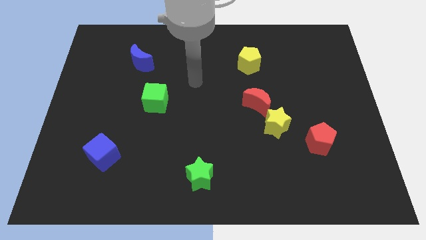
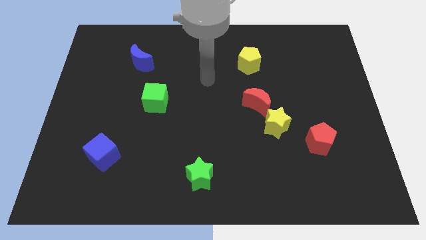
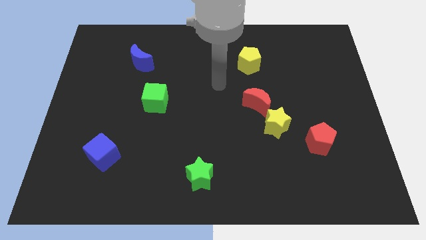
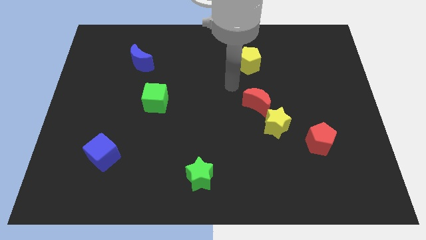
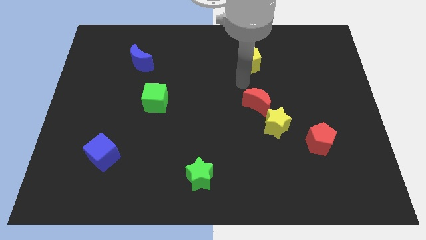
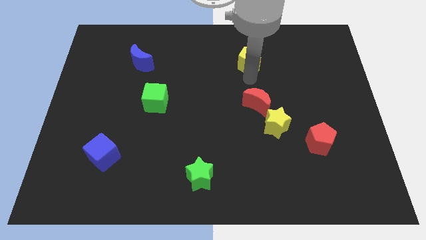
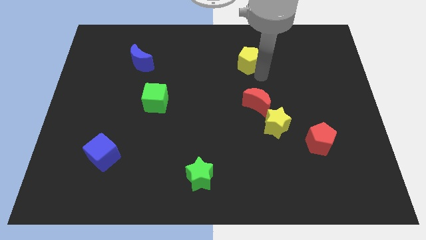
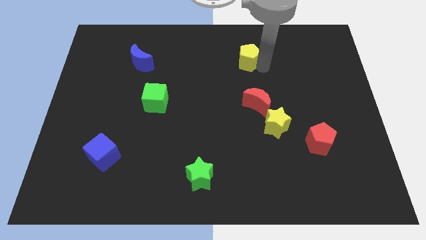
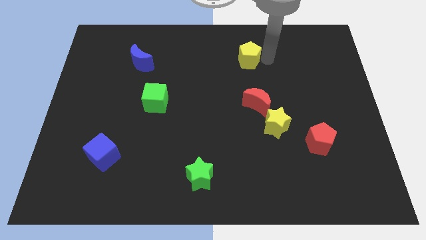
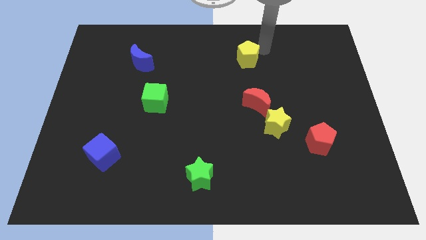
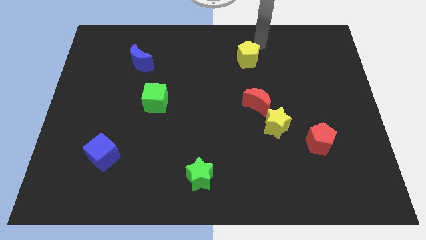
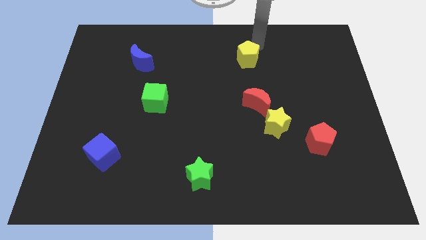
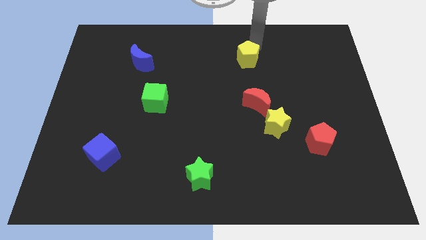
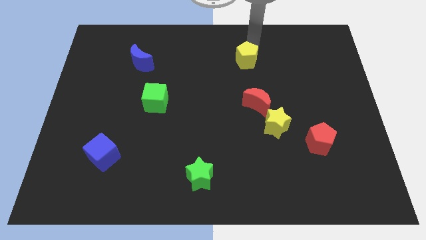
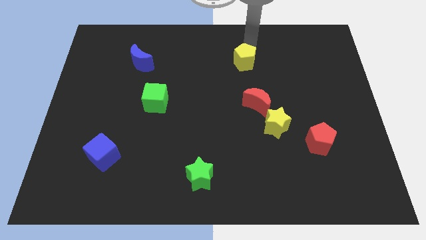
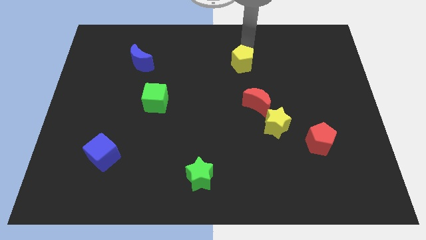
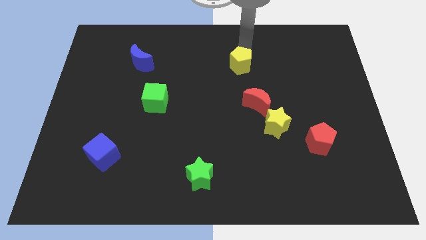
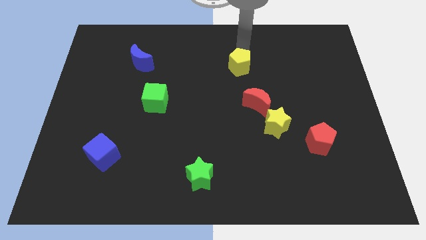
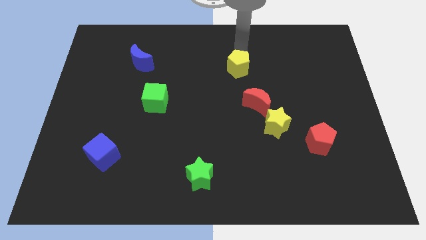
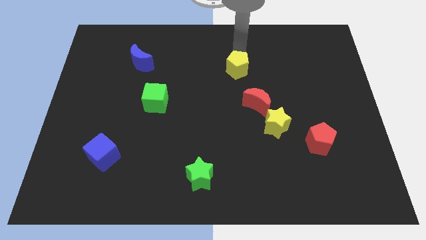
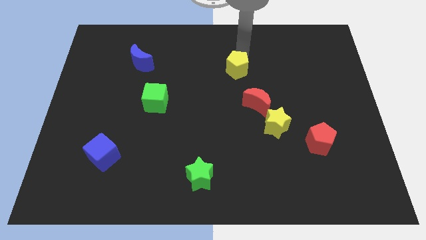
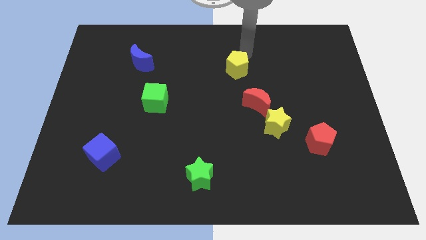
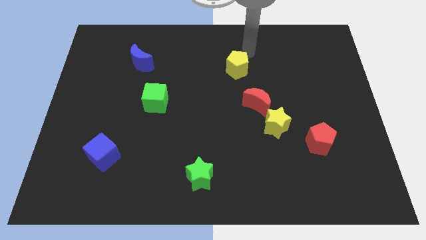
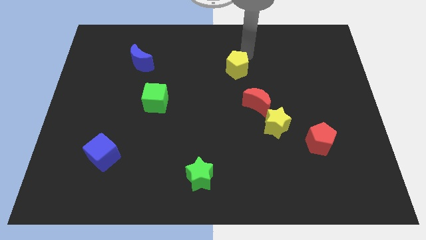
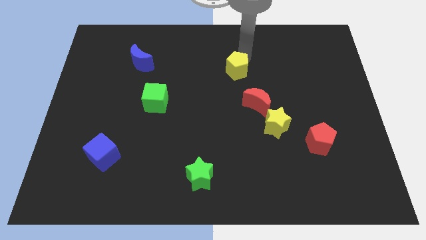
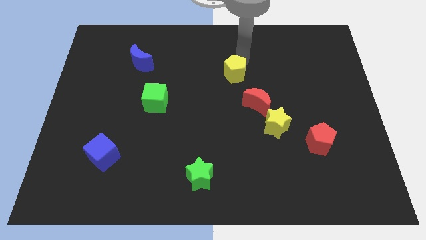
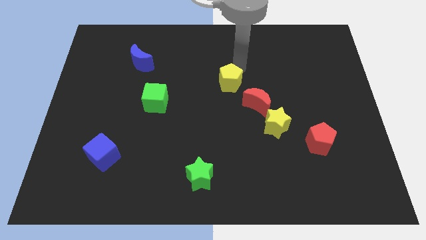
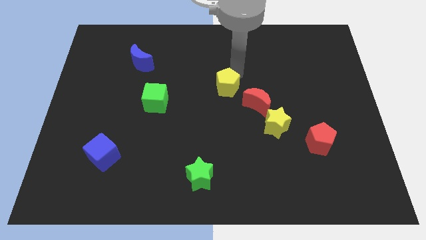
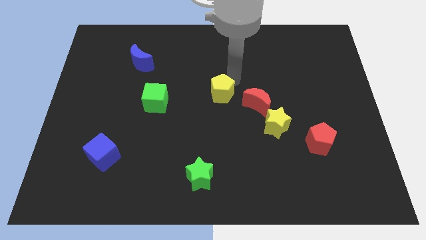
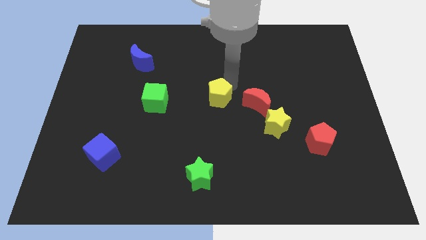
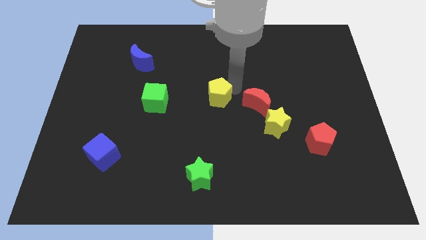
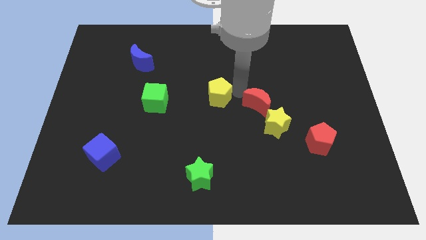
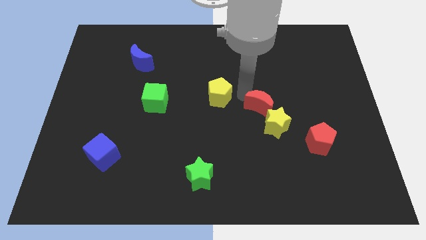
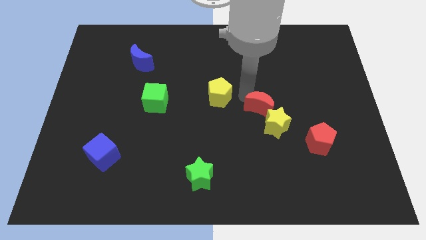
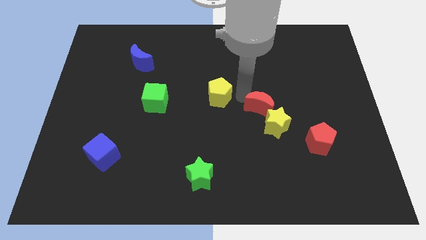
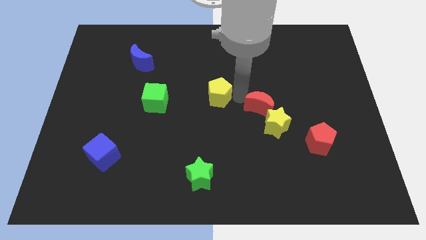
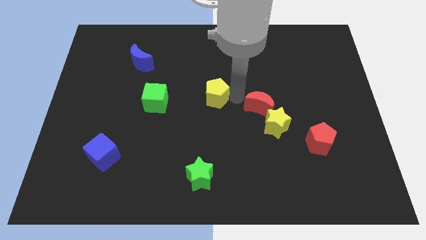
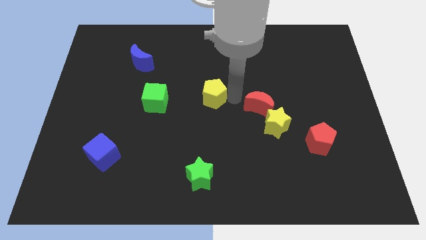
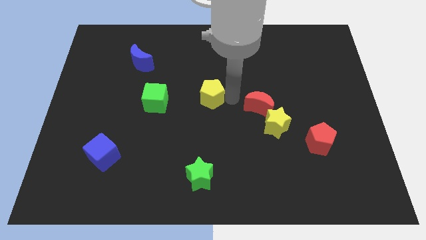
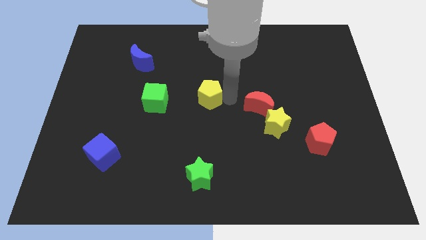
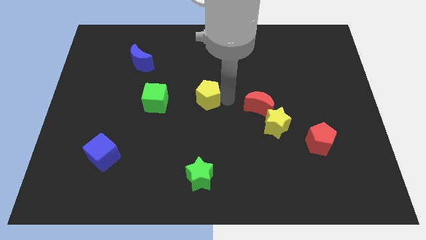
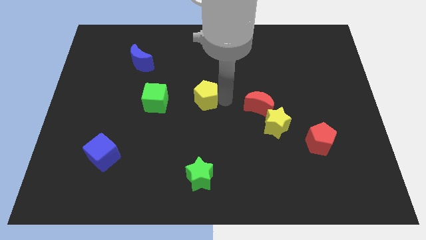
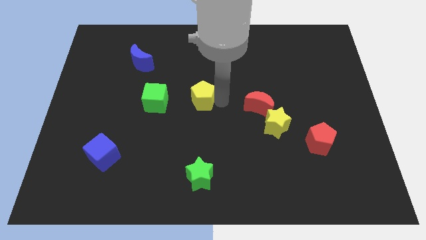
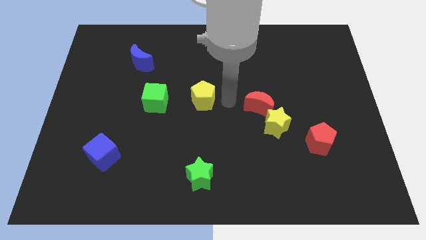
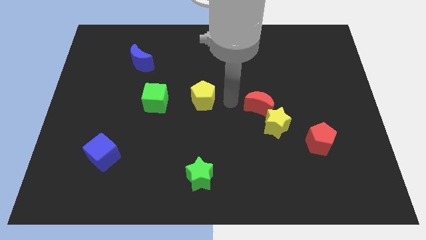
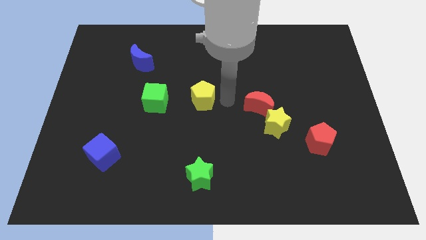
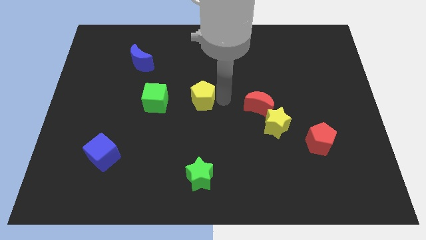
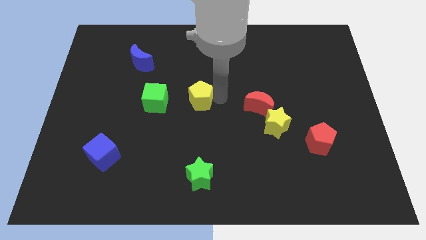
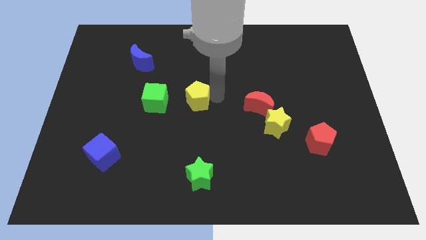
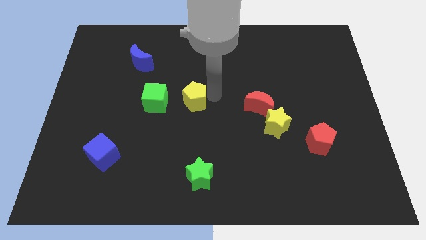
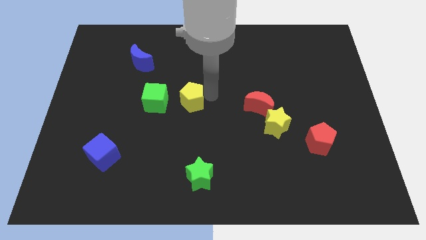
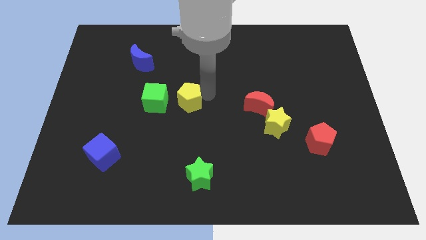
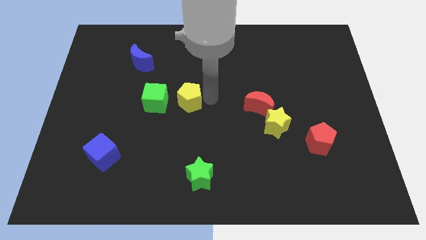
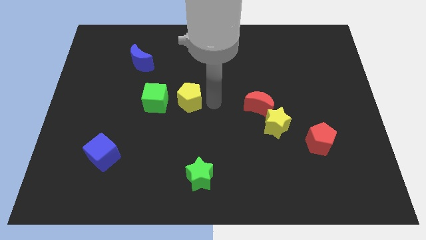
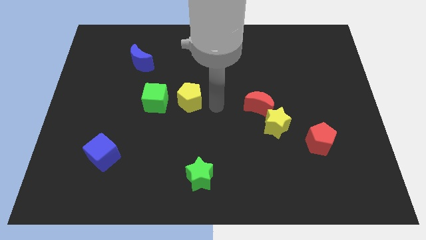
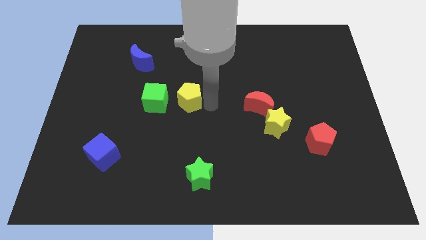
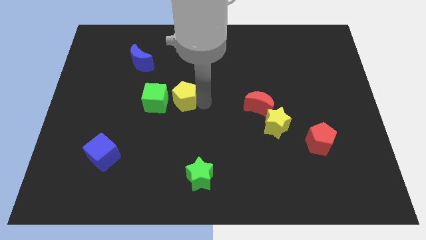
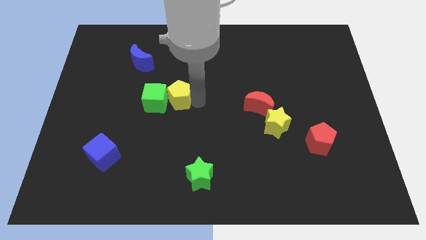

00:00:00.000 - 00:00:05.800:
put the yellow pentagon to the green cube

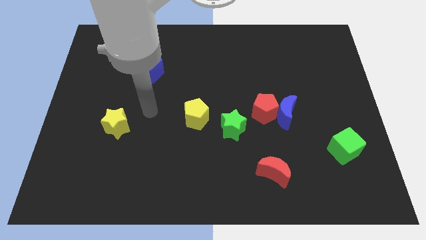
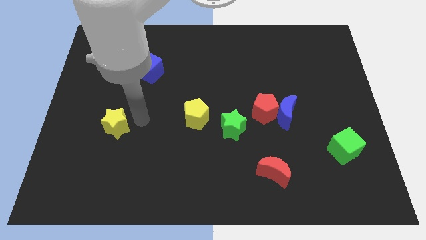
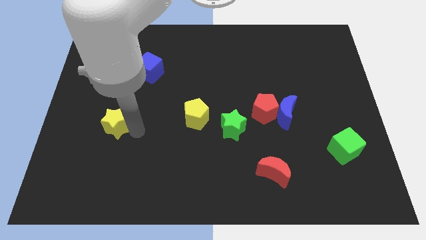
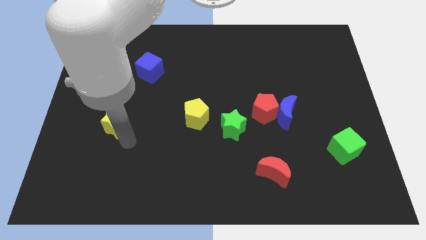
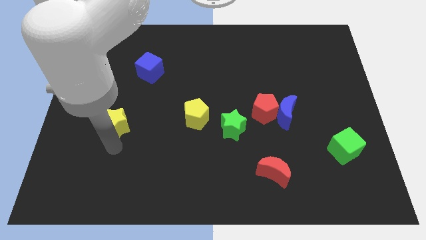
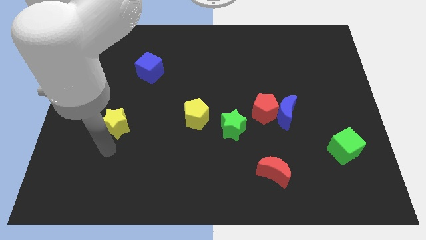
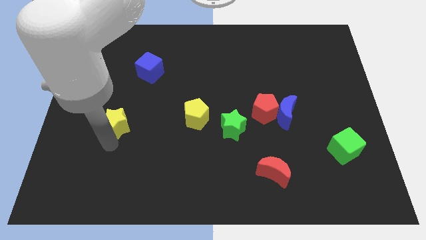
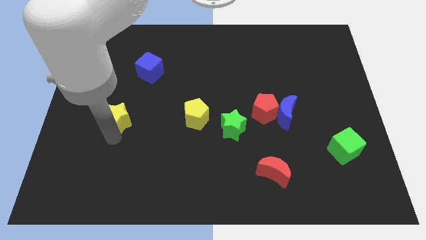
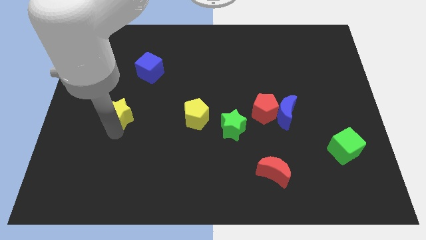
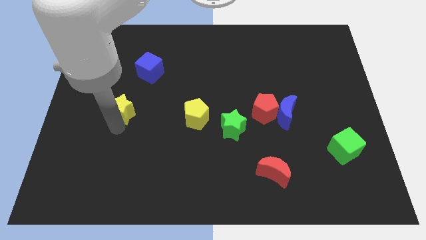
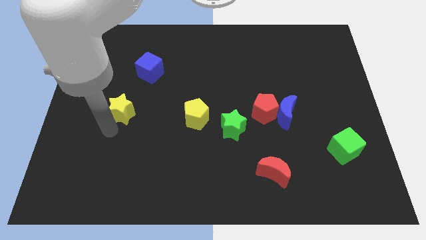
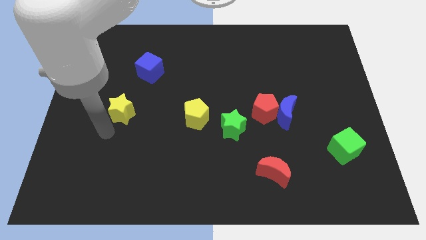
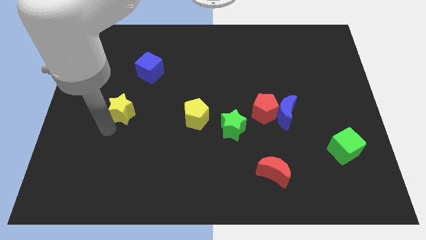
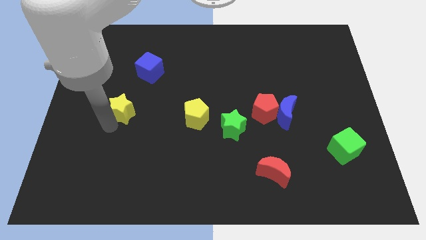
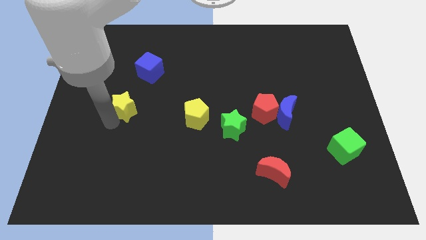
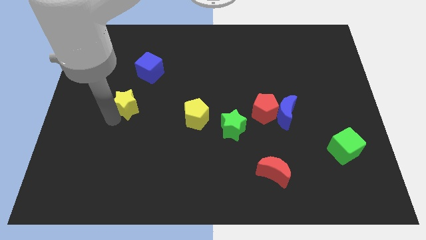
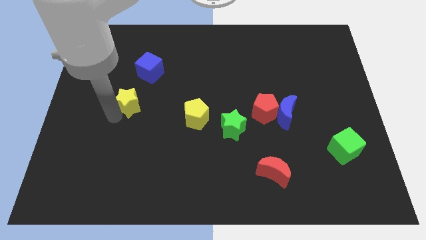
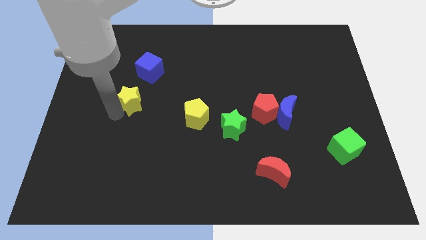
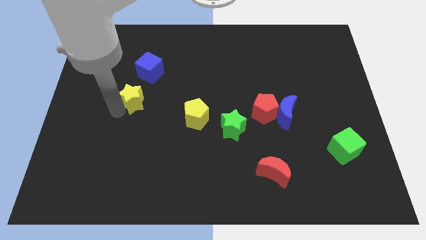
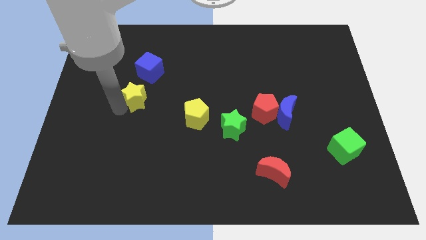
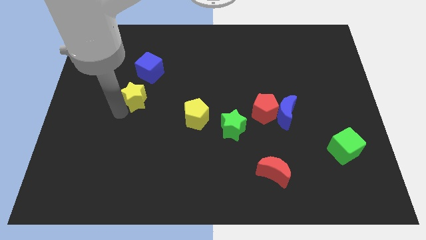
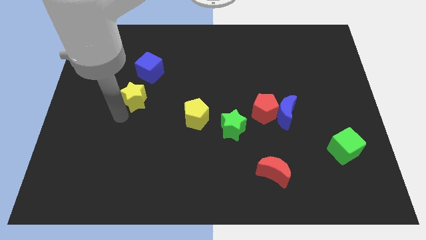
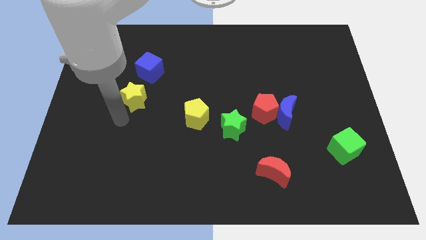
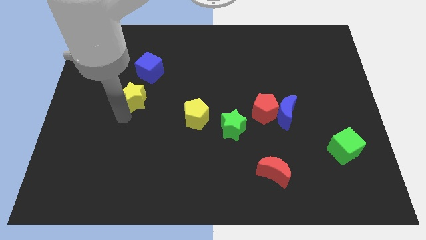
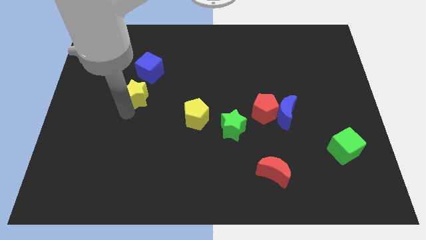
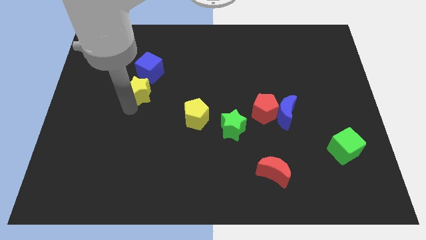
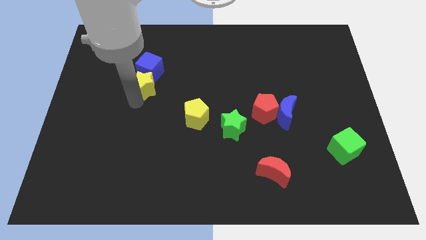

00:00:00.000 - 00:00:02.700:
put the yellow star to the blue cube
